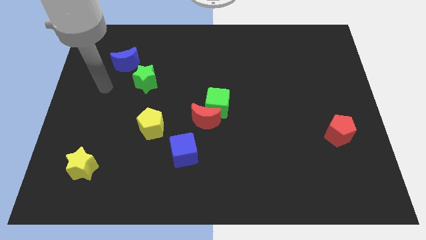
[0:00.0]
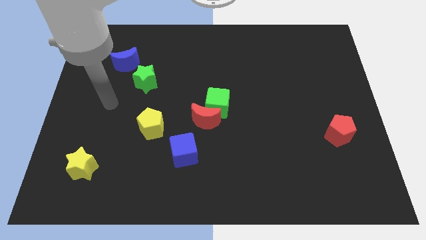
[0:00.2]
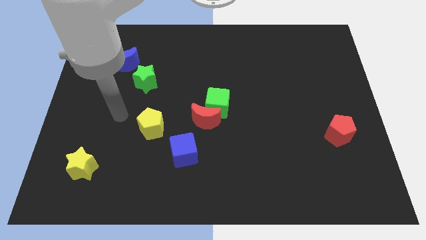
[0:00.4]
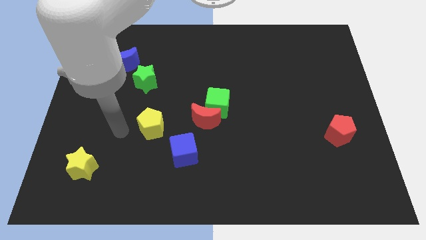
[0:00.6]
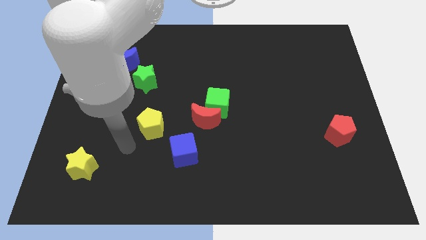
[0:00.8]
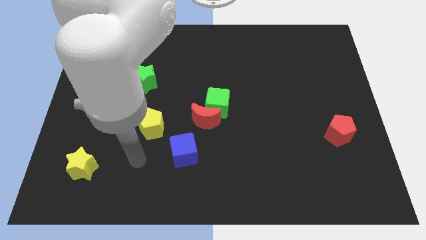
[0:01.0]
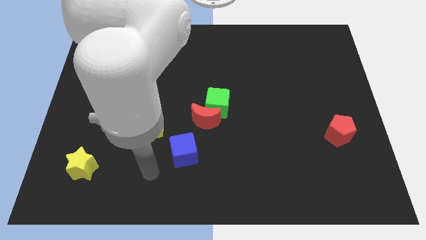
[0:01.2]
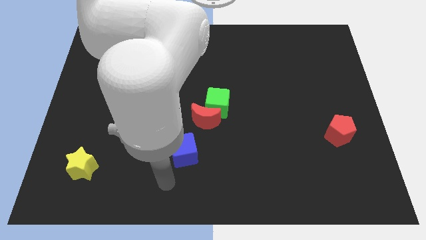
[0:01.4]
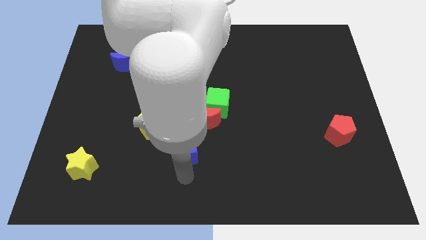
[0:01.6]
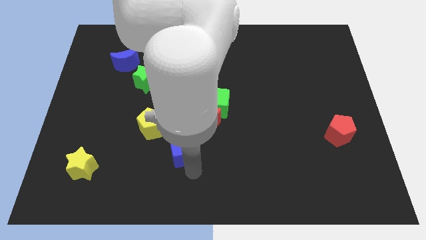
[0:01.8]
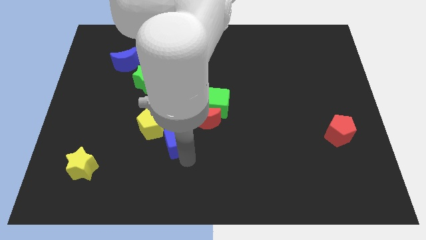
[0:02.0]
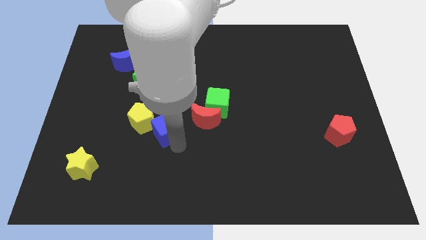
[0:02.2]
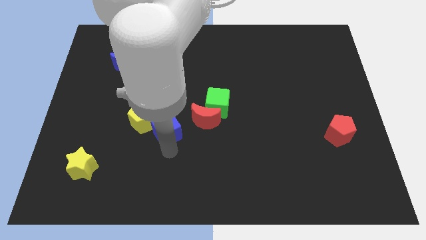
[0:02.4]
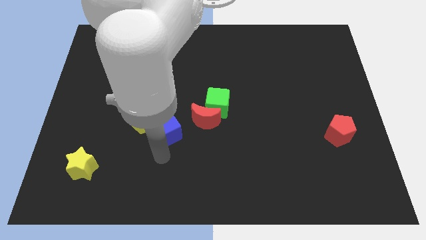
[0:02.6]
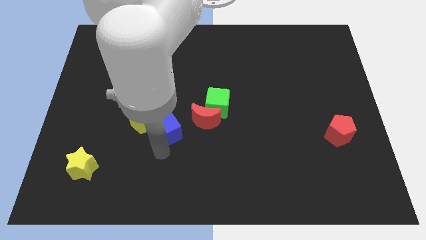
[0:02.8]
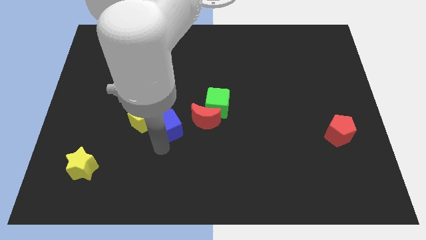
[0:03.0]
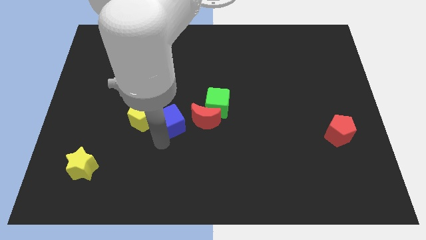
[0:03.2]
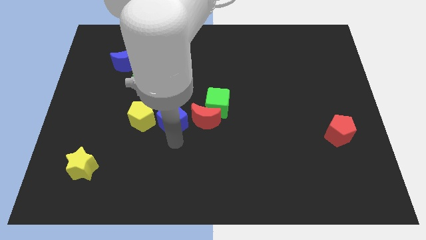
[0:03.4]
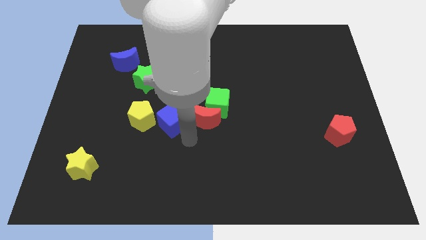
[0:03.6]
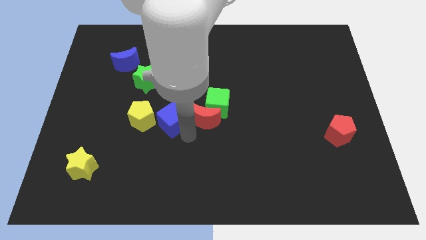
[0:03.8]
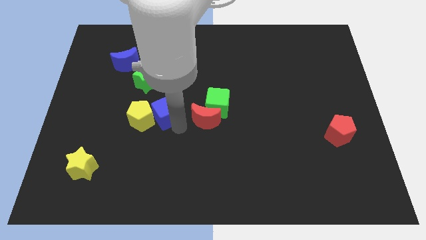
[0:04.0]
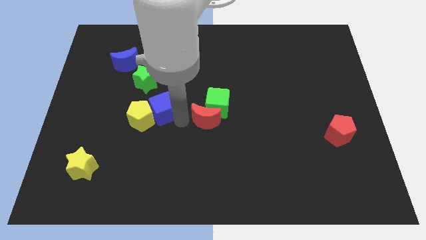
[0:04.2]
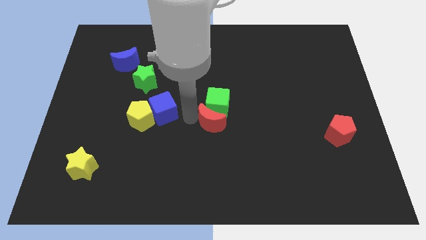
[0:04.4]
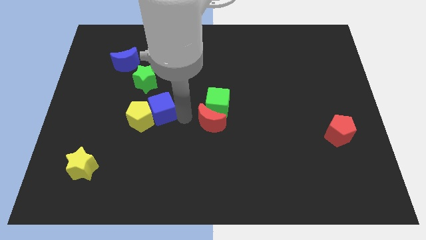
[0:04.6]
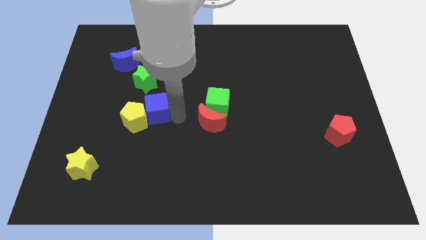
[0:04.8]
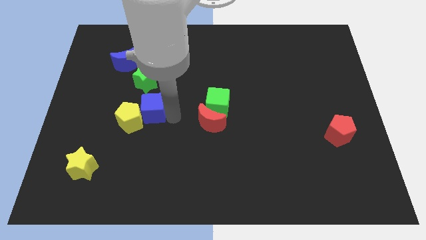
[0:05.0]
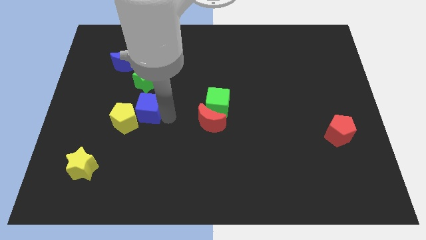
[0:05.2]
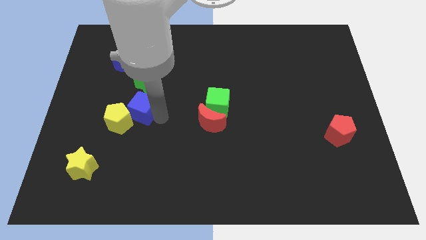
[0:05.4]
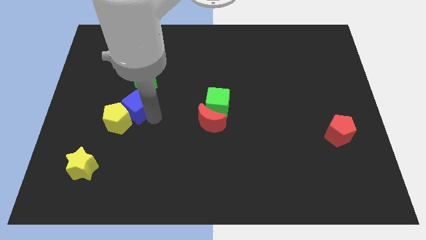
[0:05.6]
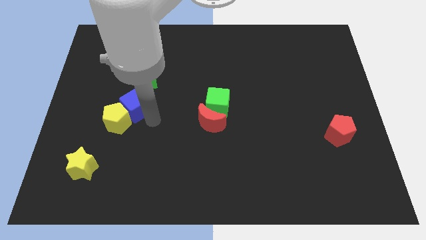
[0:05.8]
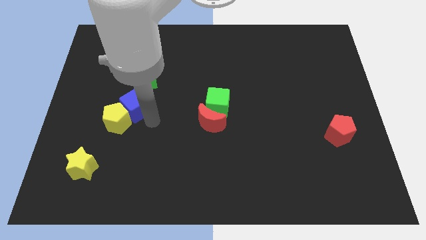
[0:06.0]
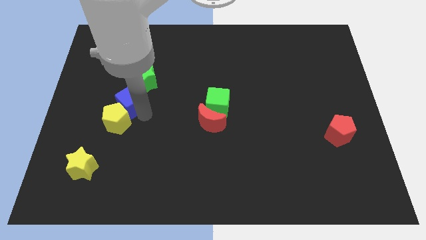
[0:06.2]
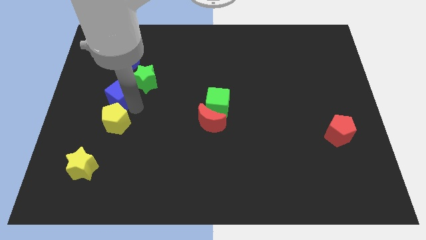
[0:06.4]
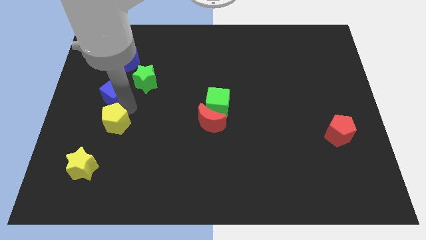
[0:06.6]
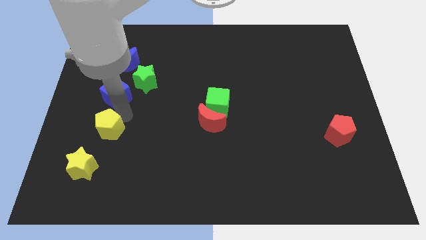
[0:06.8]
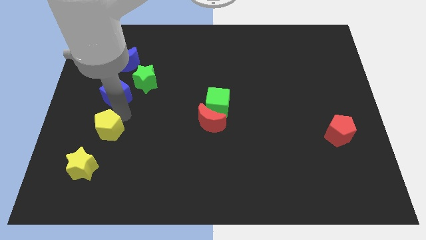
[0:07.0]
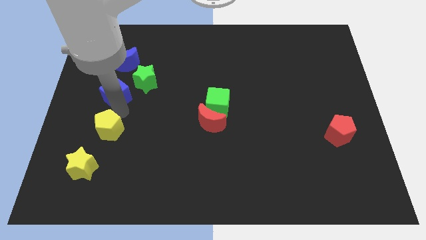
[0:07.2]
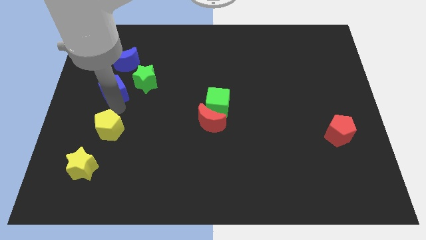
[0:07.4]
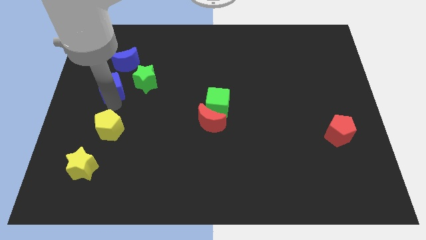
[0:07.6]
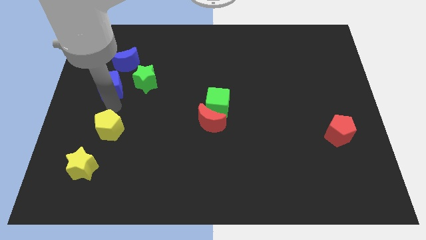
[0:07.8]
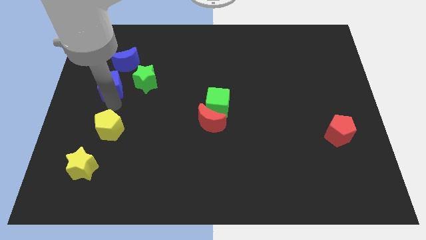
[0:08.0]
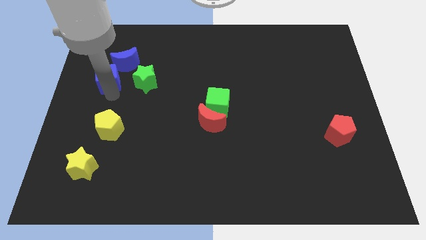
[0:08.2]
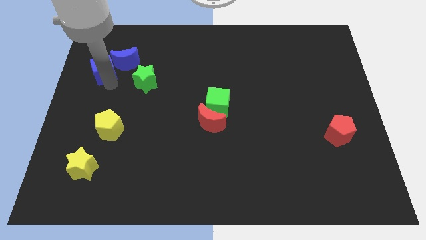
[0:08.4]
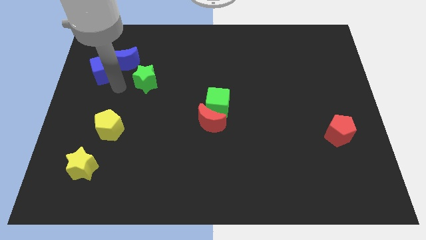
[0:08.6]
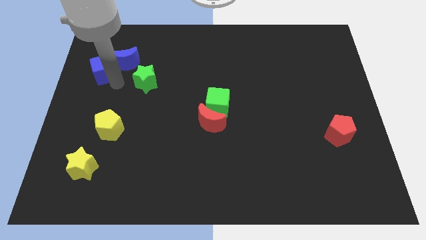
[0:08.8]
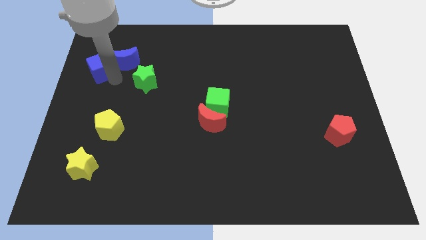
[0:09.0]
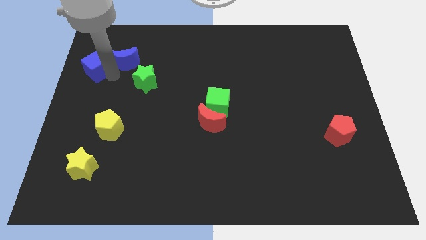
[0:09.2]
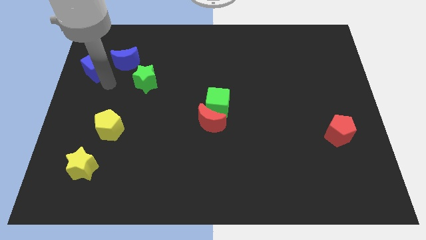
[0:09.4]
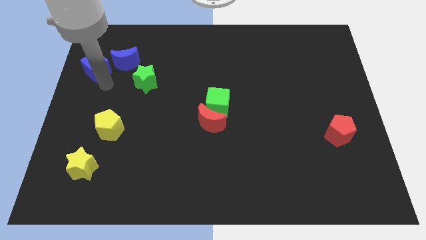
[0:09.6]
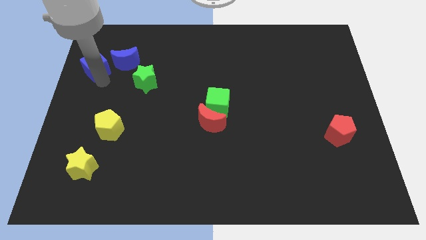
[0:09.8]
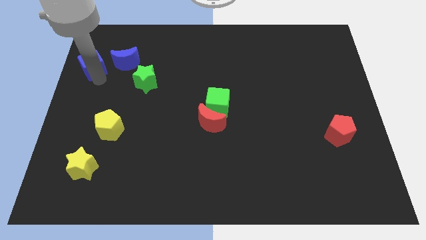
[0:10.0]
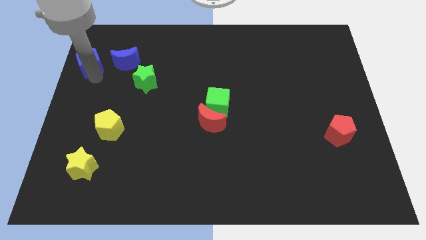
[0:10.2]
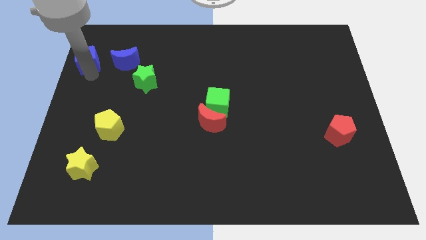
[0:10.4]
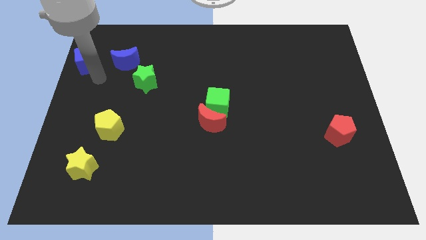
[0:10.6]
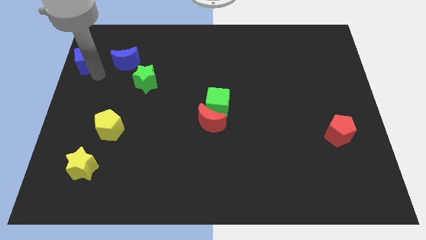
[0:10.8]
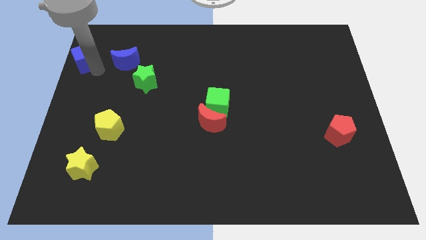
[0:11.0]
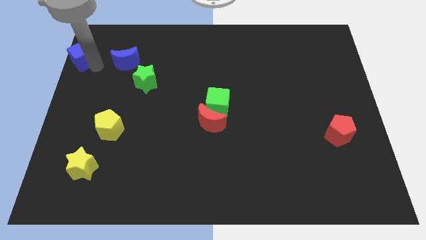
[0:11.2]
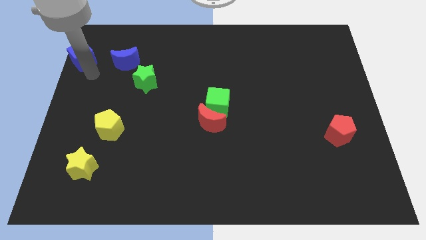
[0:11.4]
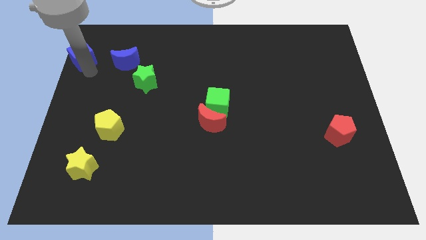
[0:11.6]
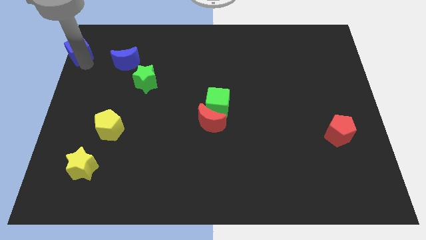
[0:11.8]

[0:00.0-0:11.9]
move the blue cube to the top left
